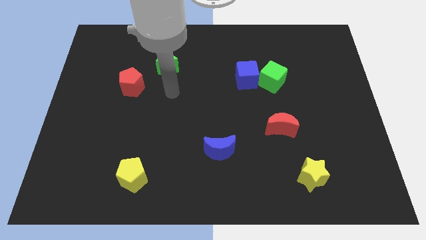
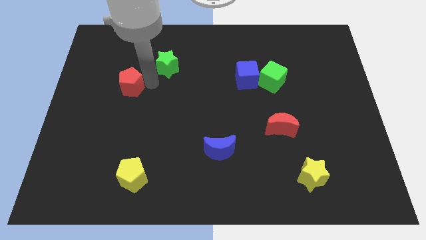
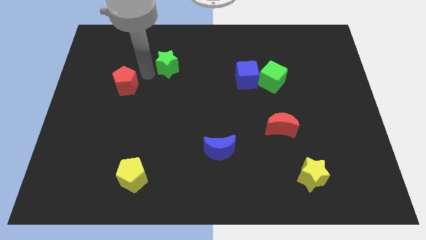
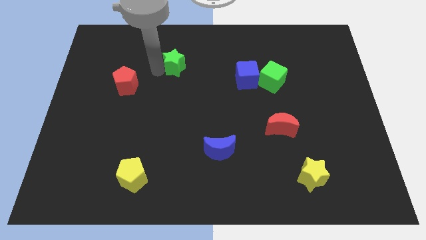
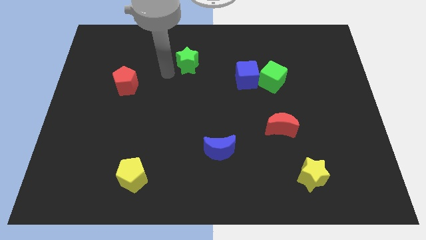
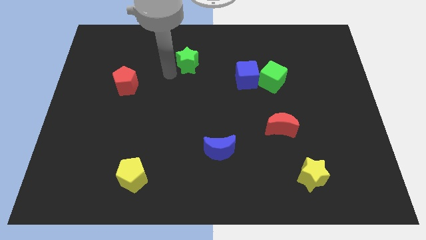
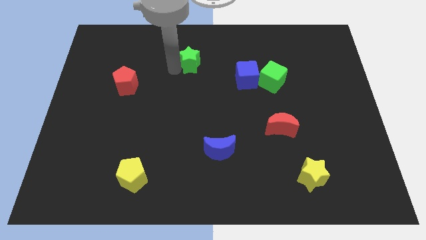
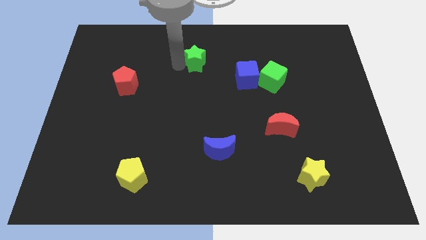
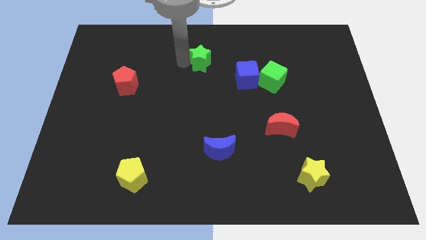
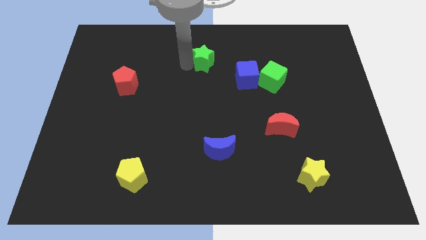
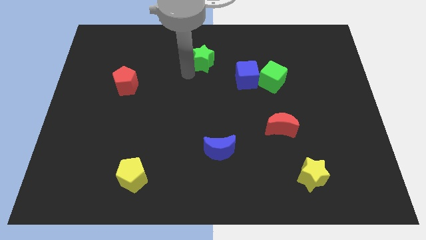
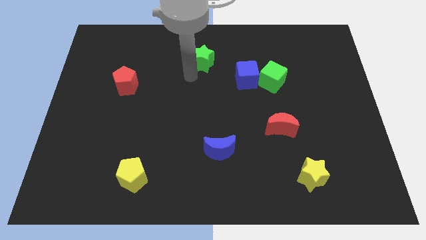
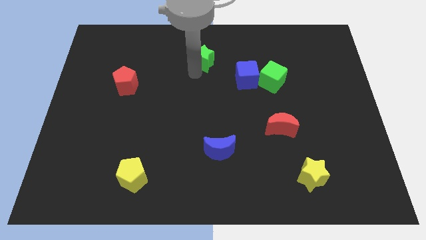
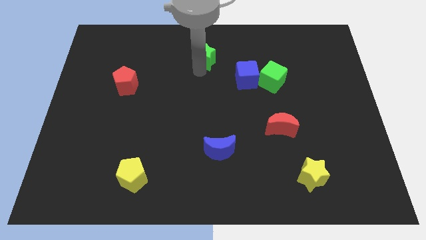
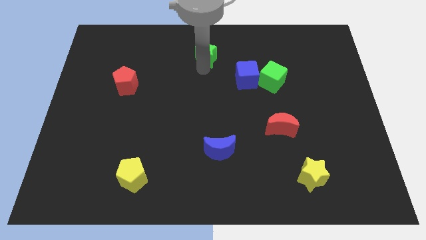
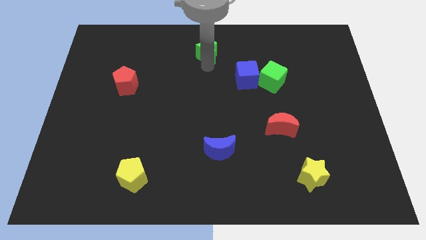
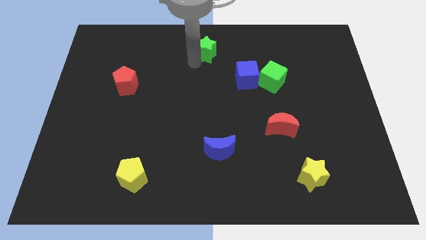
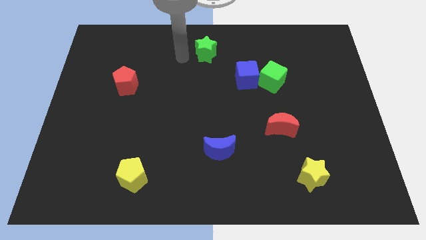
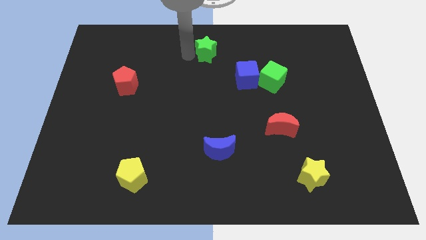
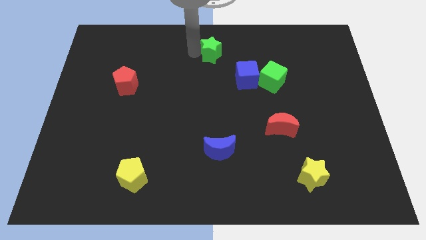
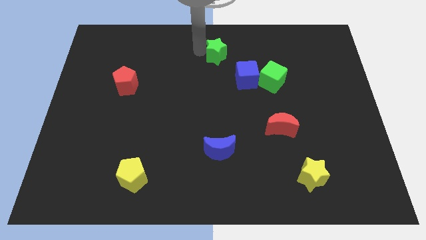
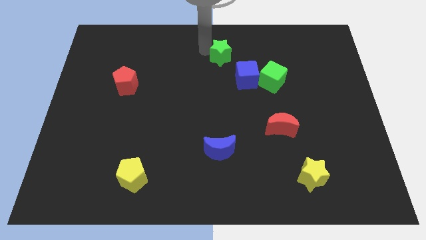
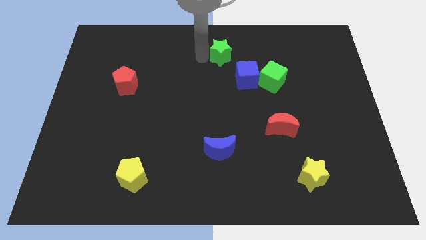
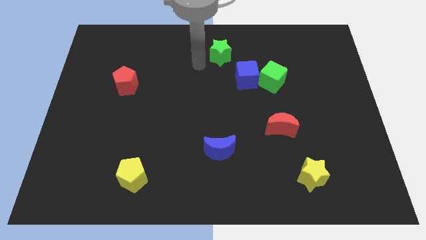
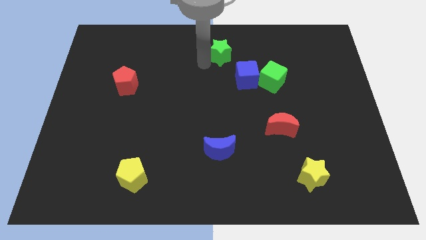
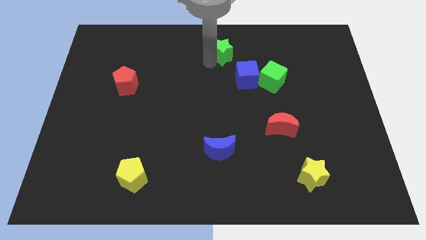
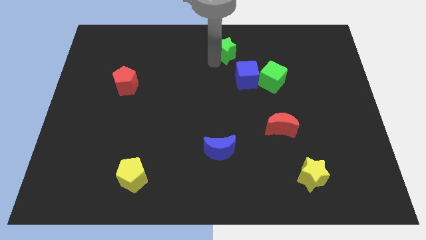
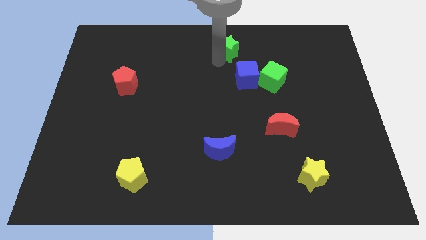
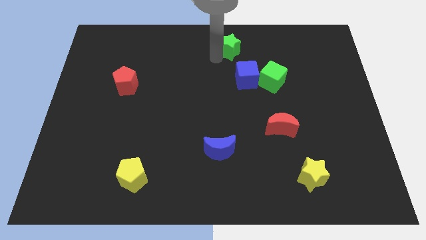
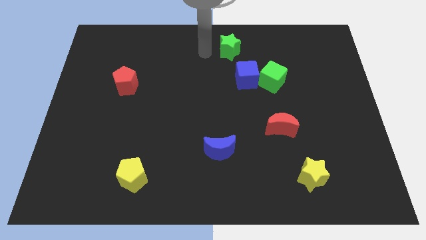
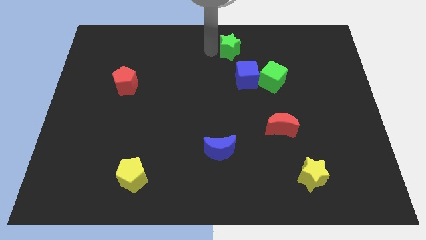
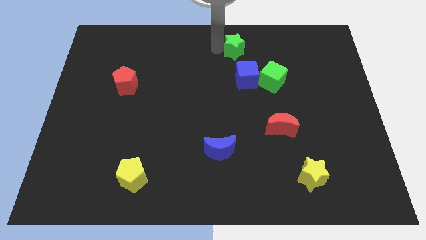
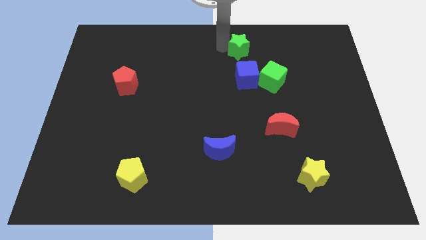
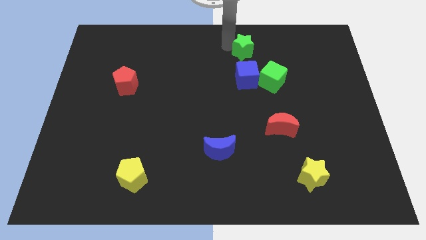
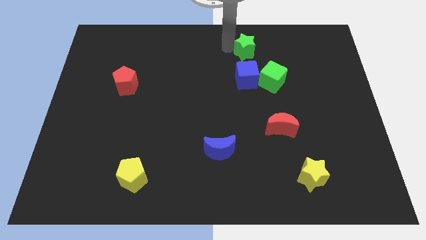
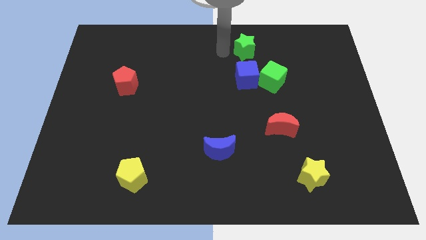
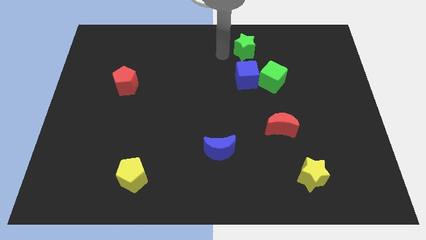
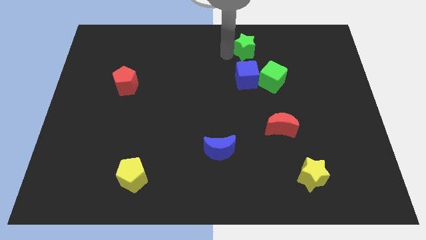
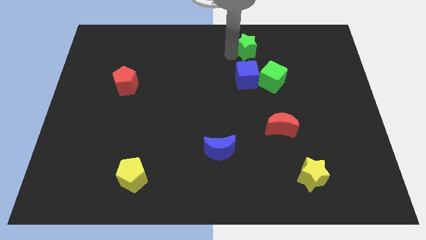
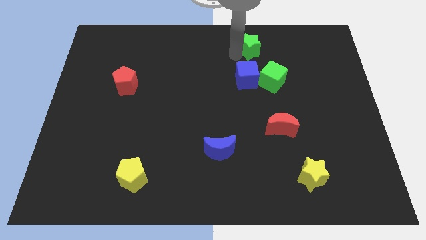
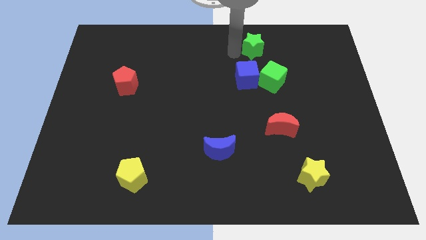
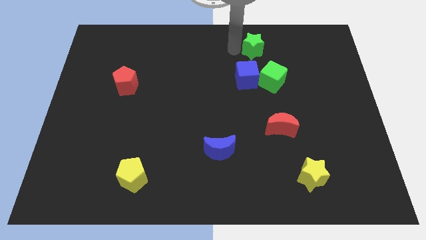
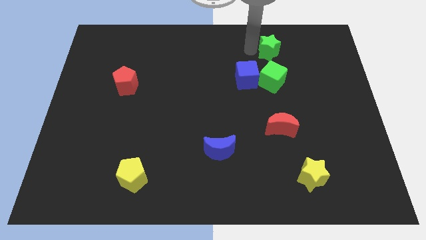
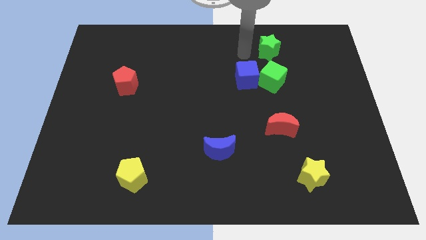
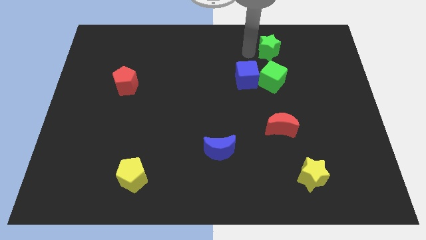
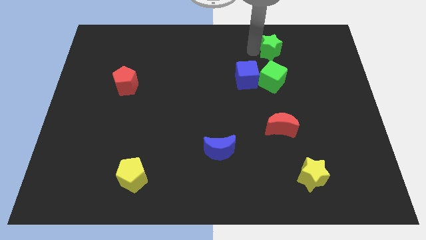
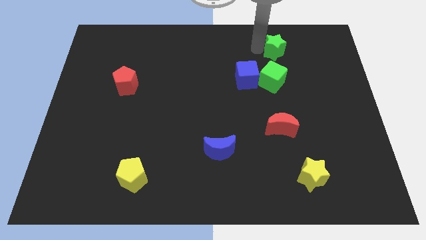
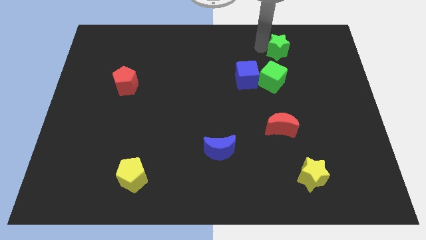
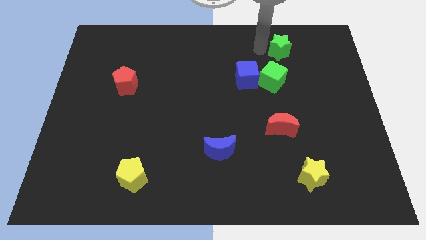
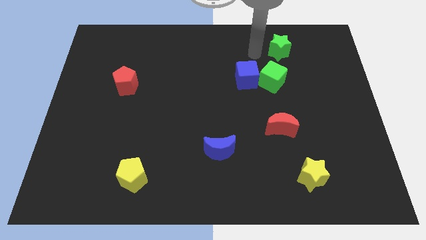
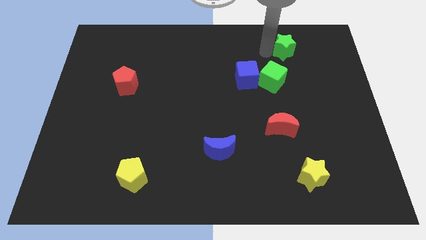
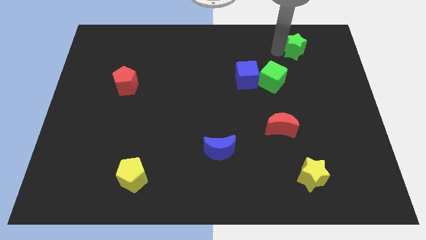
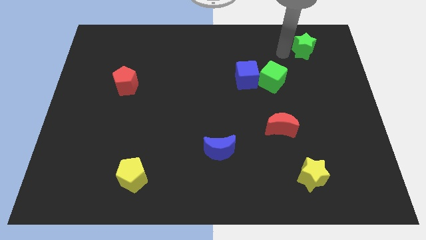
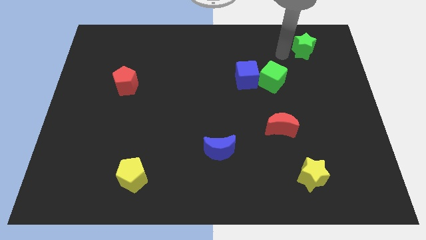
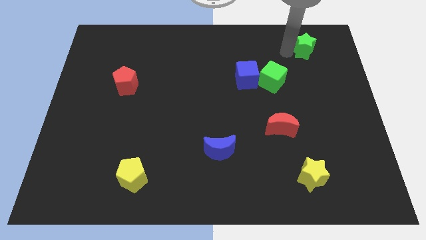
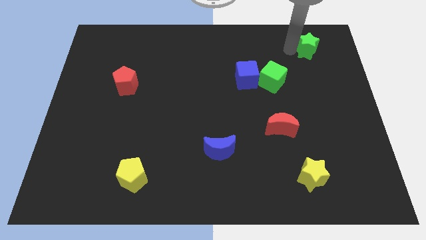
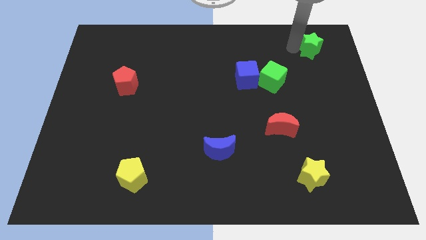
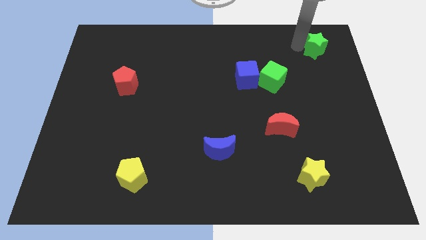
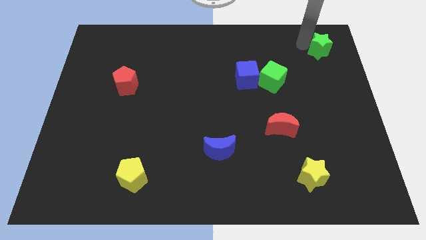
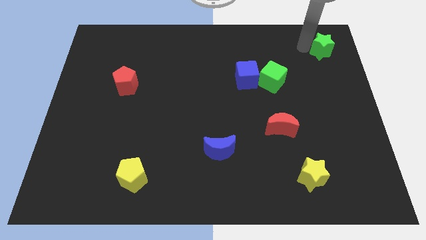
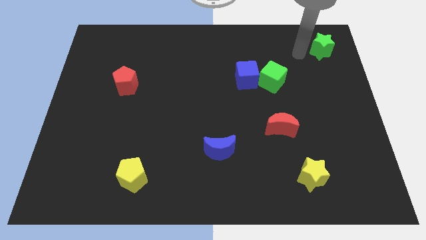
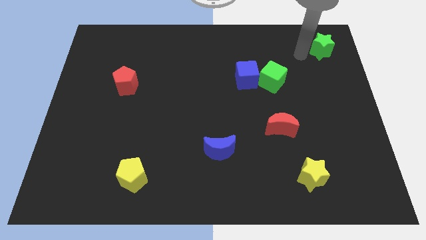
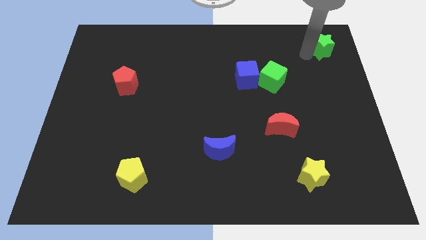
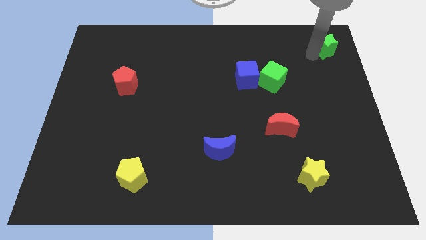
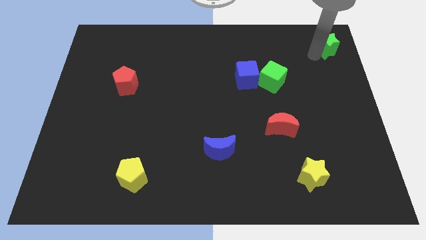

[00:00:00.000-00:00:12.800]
slide the green star to the top right corner

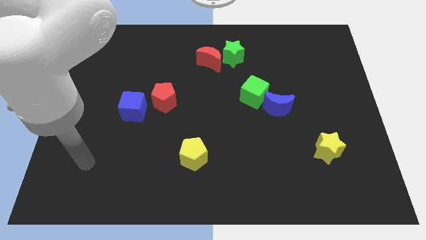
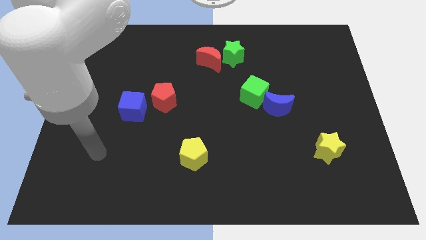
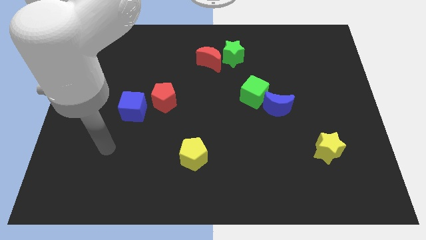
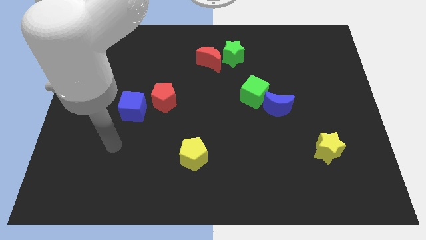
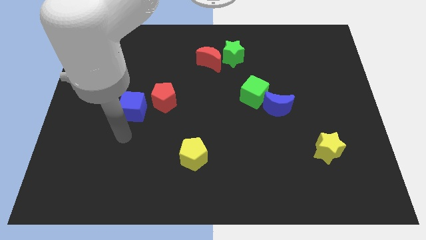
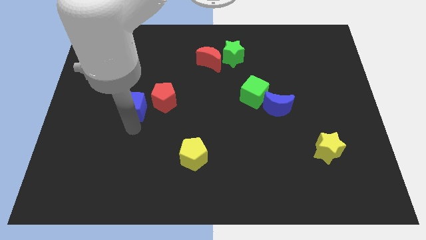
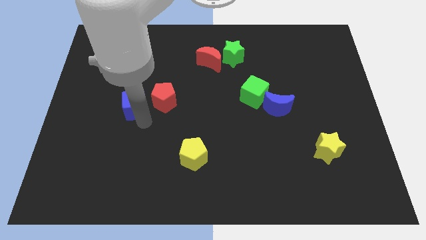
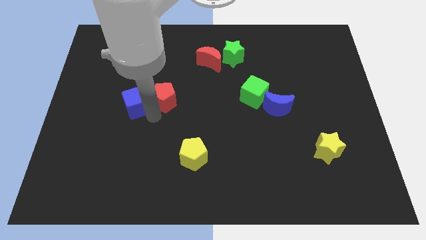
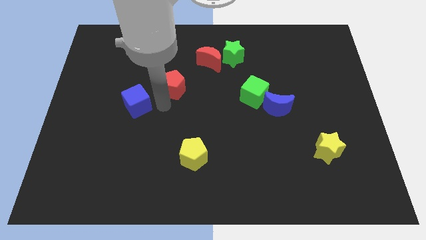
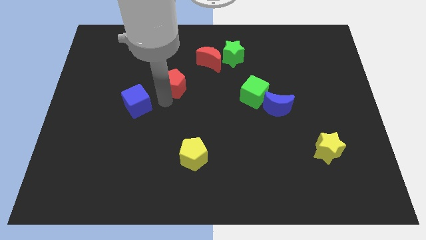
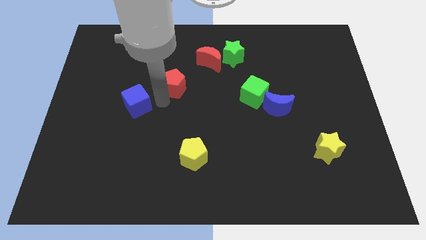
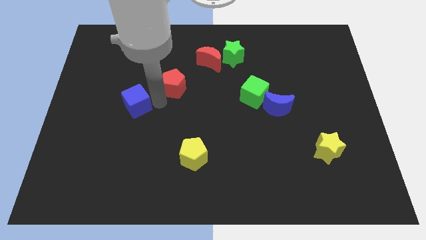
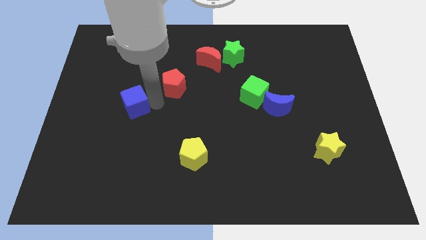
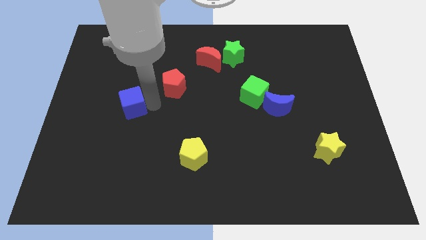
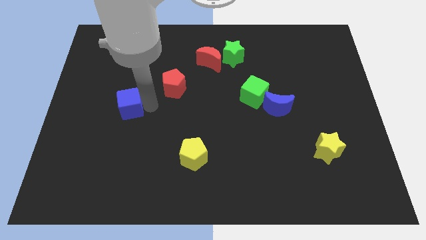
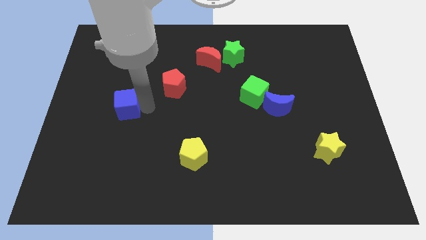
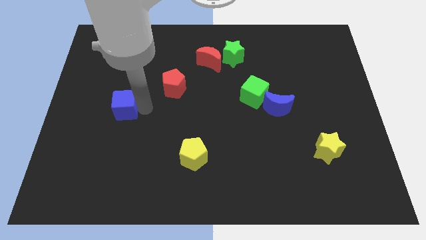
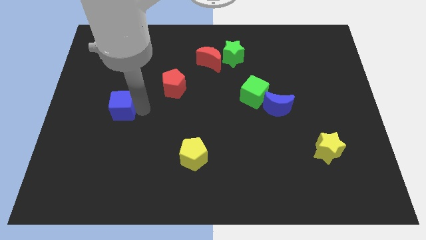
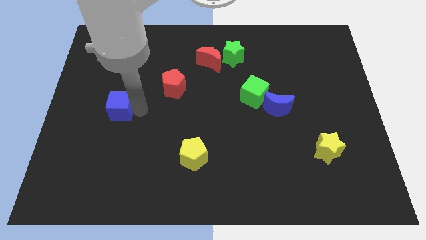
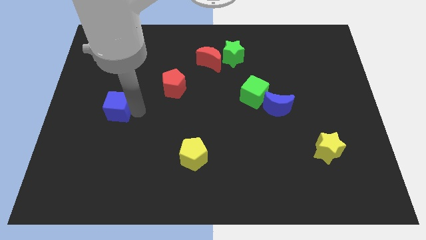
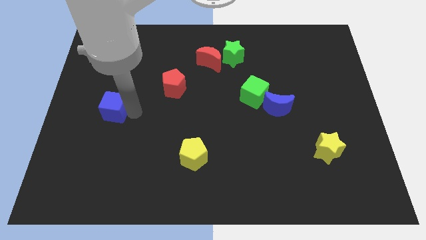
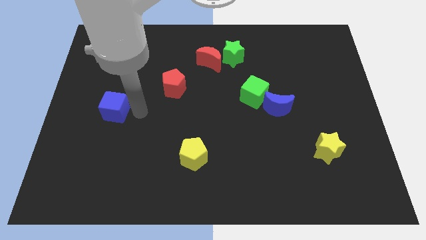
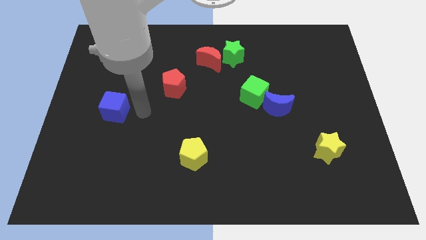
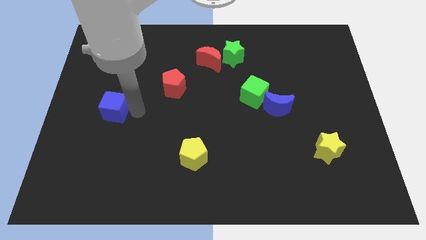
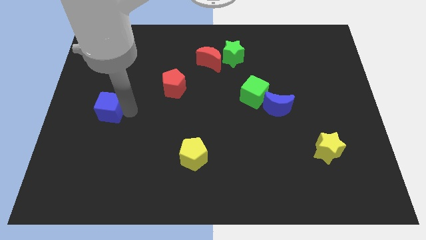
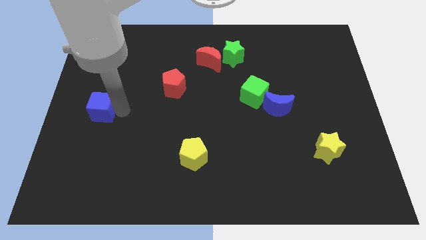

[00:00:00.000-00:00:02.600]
put the blue cube to the left side
